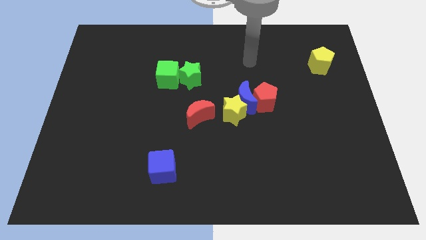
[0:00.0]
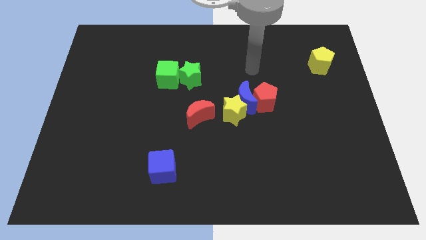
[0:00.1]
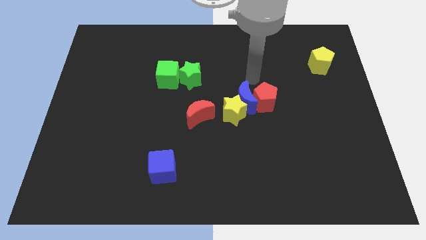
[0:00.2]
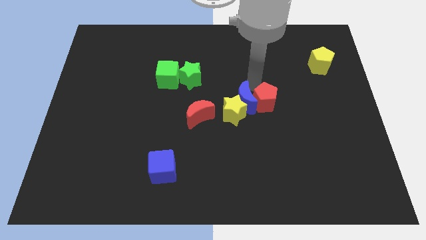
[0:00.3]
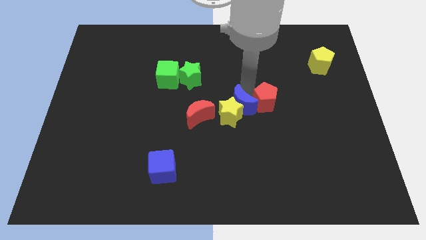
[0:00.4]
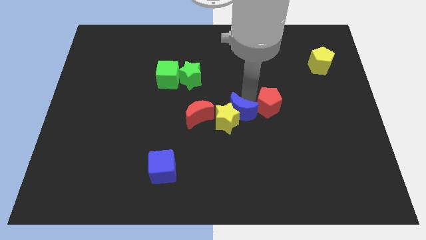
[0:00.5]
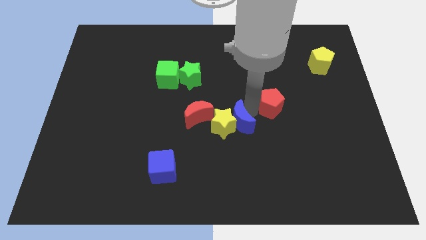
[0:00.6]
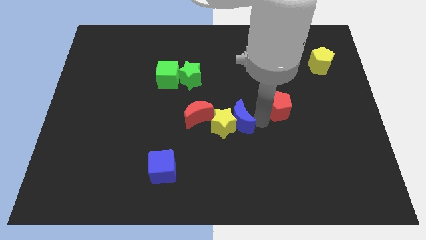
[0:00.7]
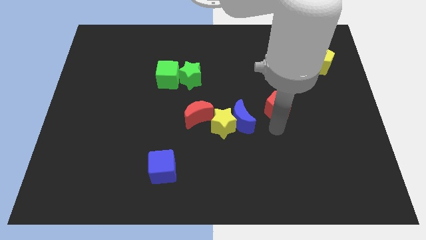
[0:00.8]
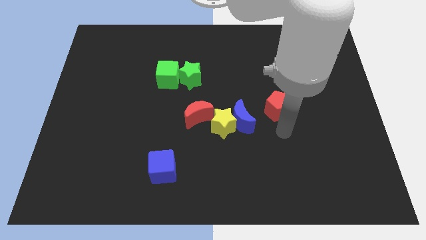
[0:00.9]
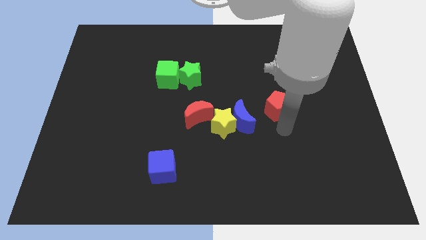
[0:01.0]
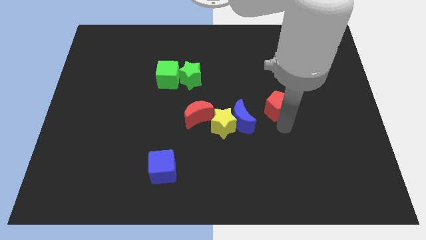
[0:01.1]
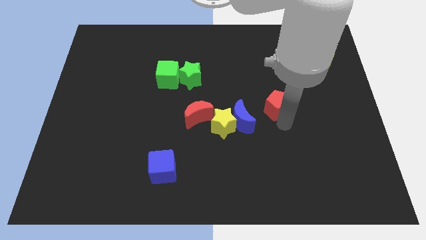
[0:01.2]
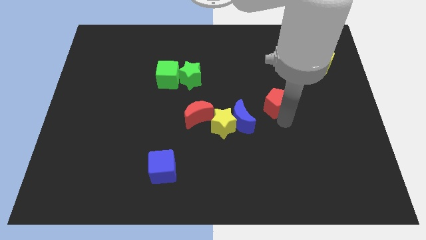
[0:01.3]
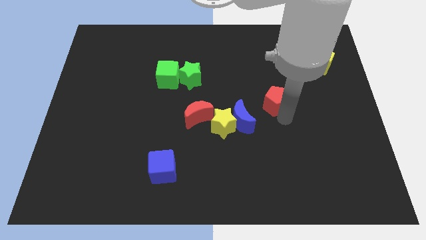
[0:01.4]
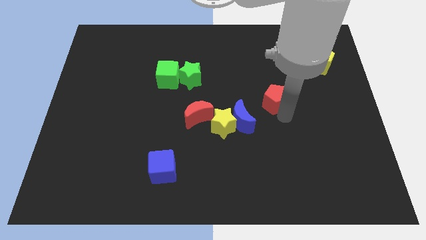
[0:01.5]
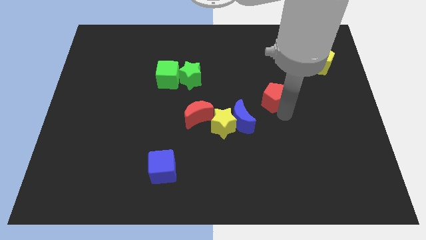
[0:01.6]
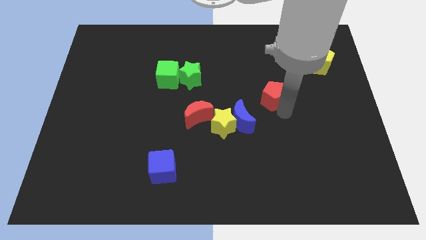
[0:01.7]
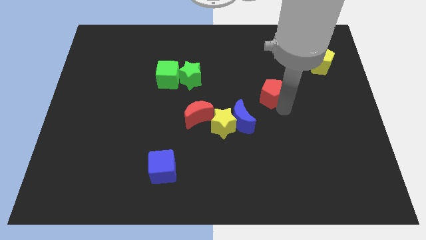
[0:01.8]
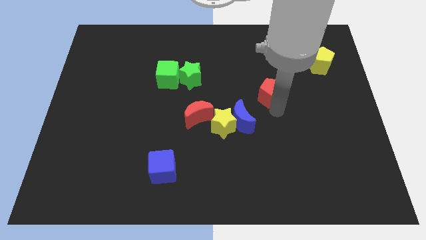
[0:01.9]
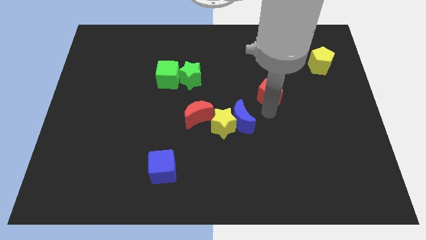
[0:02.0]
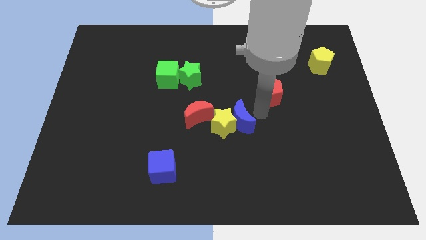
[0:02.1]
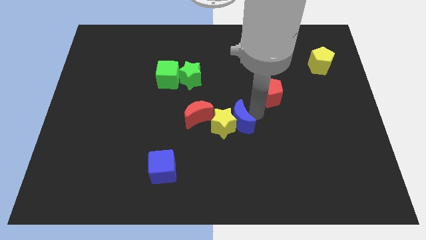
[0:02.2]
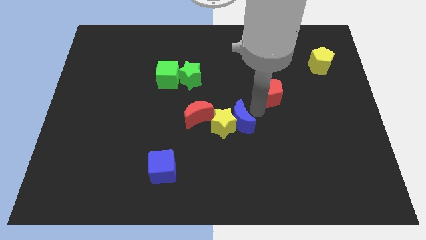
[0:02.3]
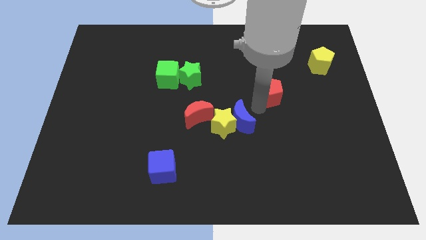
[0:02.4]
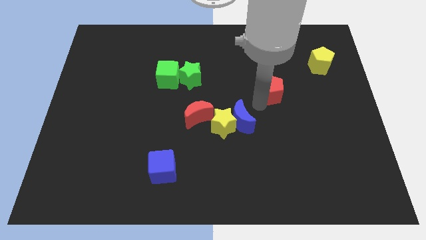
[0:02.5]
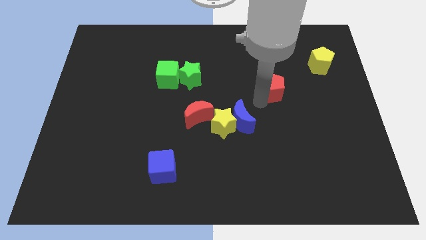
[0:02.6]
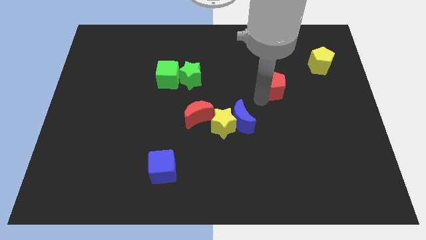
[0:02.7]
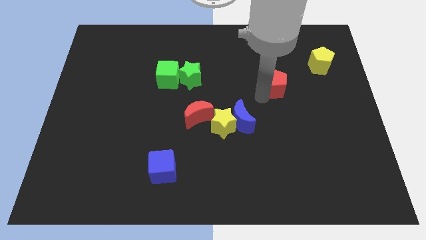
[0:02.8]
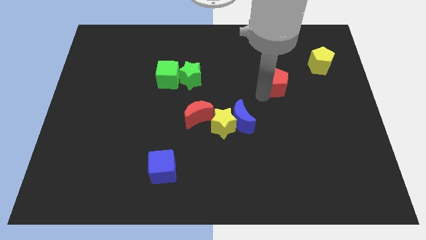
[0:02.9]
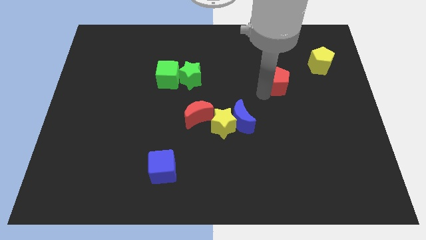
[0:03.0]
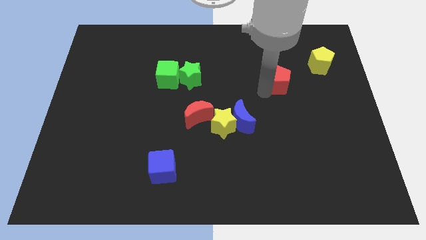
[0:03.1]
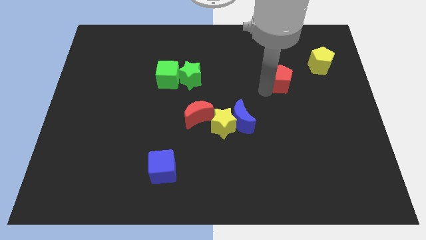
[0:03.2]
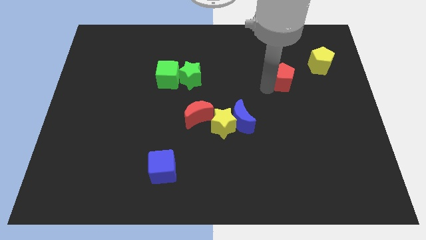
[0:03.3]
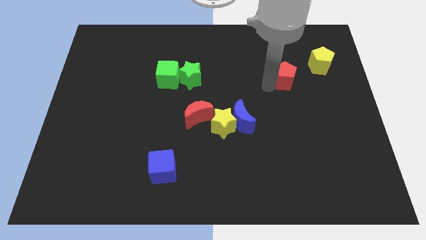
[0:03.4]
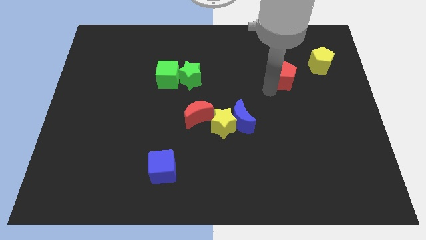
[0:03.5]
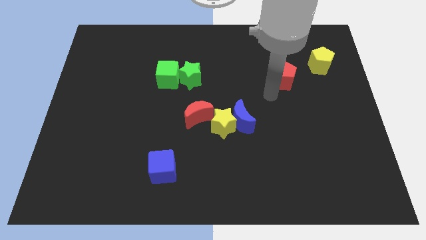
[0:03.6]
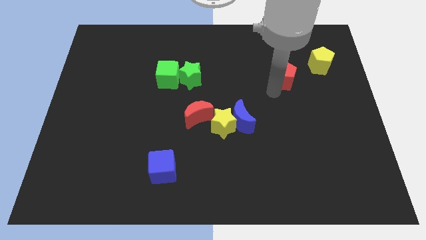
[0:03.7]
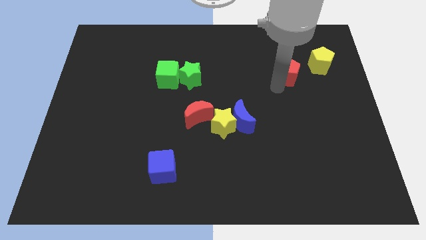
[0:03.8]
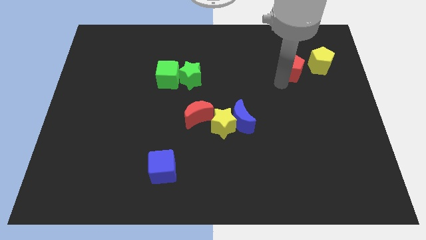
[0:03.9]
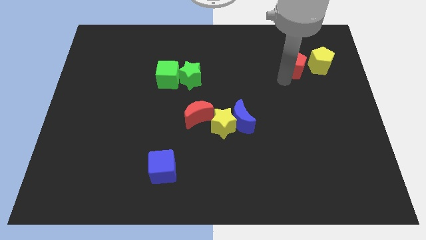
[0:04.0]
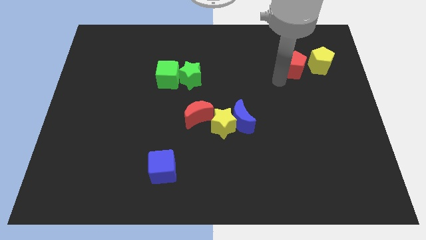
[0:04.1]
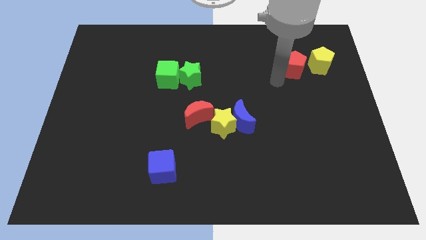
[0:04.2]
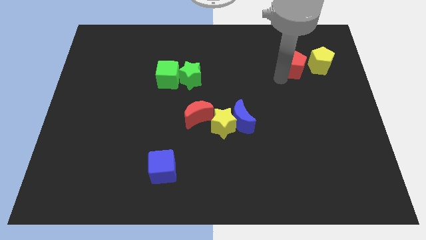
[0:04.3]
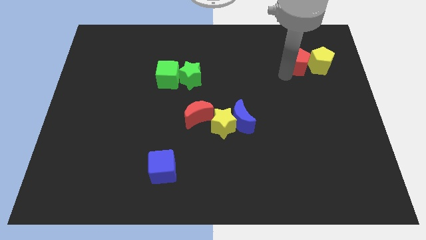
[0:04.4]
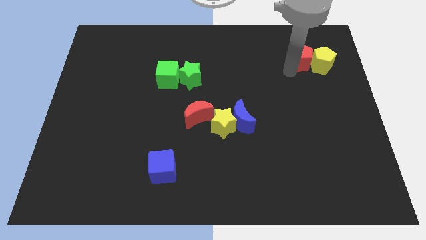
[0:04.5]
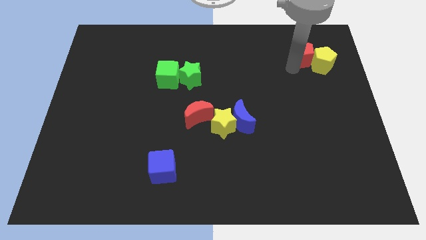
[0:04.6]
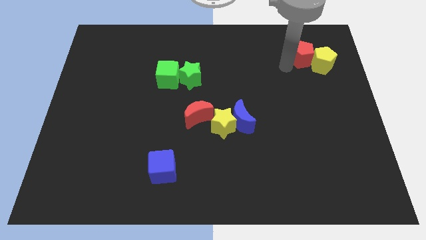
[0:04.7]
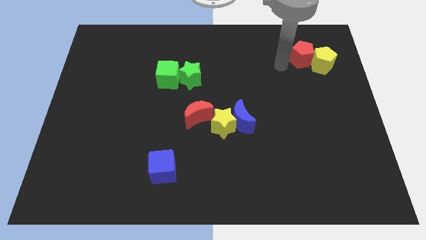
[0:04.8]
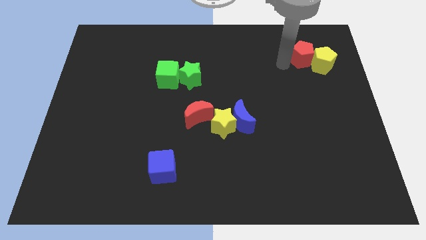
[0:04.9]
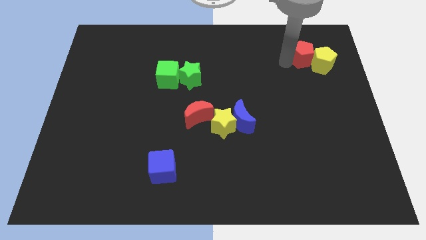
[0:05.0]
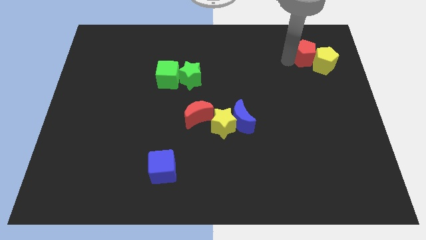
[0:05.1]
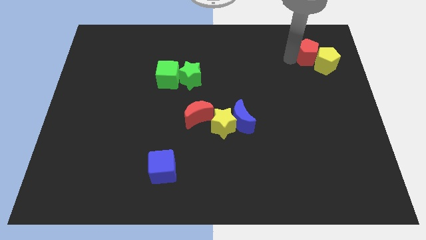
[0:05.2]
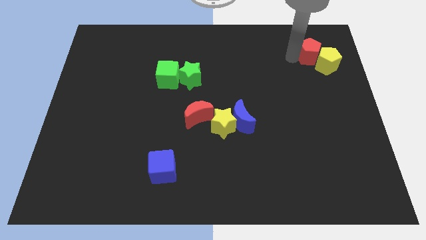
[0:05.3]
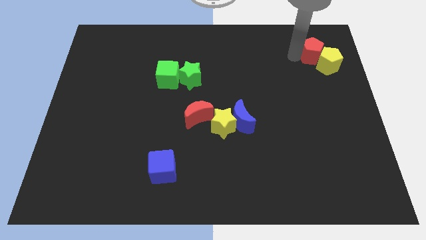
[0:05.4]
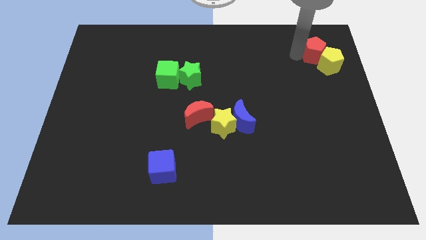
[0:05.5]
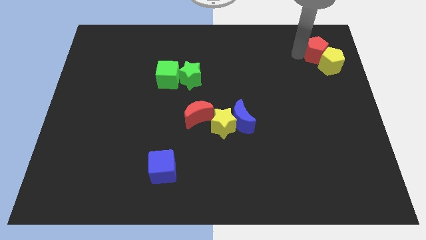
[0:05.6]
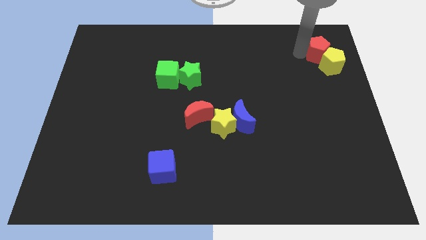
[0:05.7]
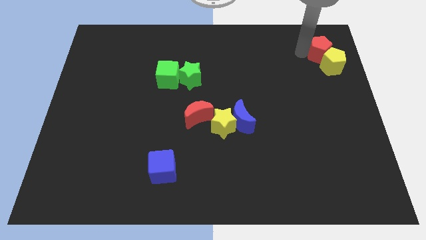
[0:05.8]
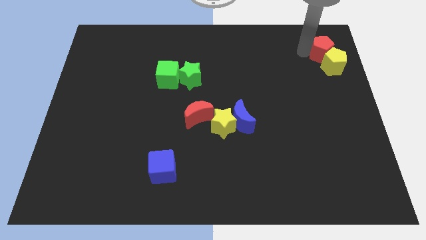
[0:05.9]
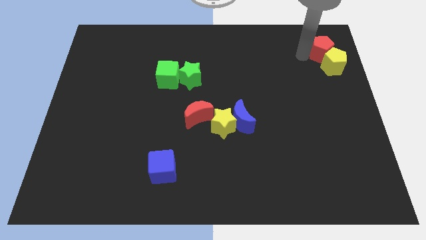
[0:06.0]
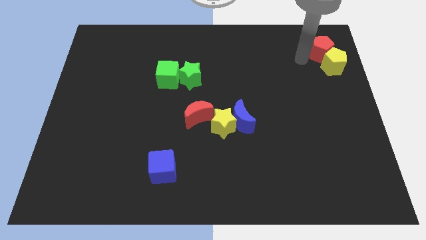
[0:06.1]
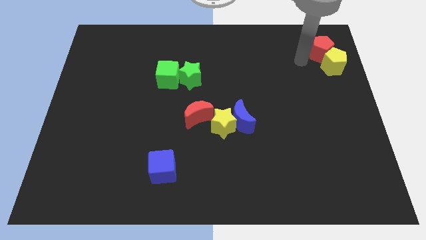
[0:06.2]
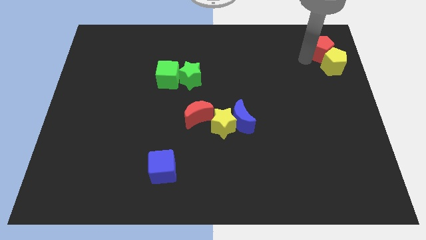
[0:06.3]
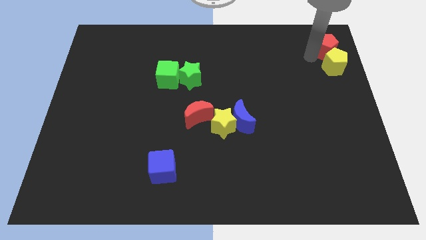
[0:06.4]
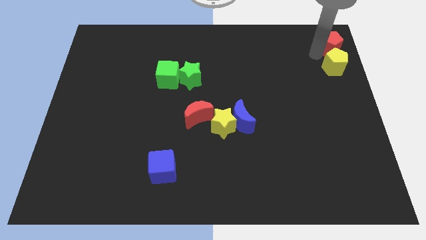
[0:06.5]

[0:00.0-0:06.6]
move the red pentagon to the top right of the board
